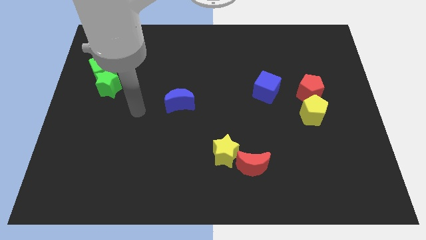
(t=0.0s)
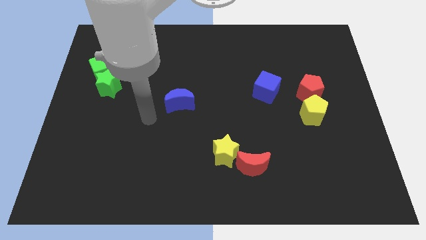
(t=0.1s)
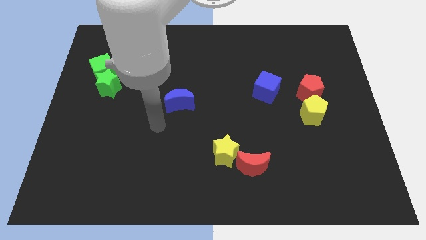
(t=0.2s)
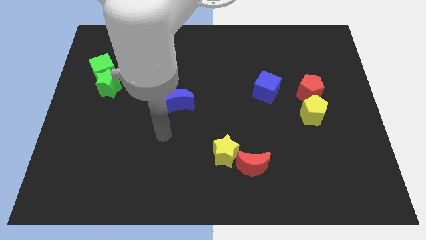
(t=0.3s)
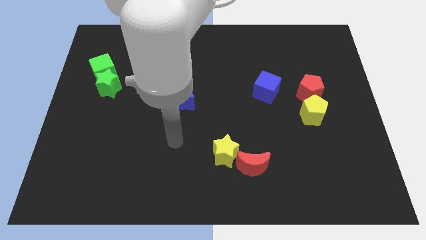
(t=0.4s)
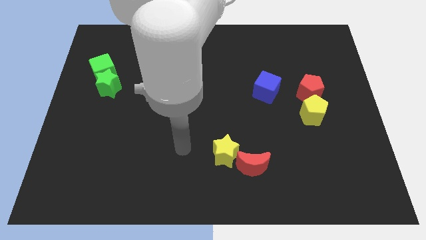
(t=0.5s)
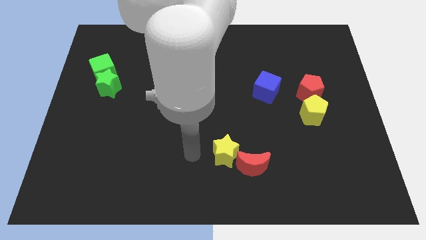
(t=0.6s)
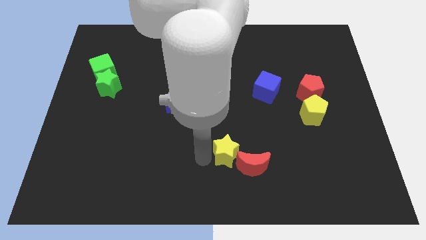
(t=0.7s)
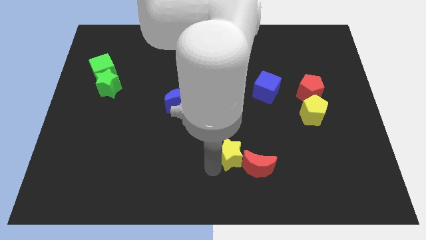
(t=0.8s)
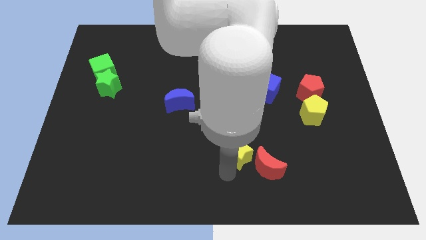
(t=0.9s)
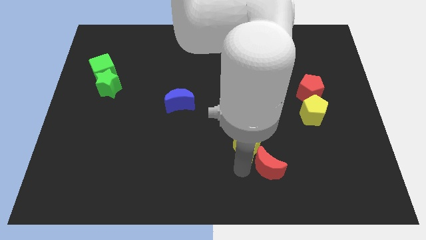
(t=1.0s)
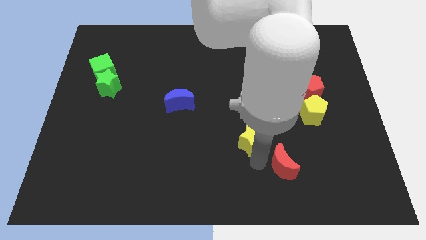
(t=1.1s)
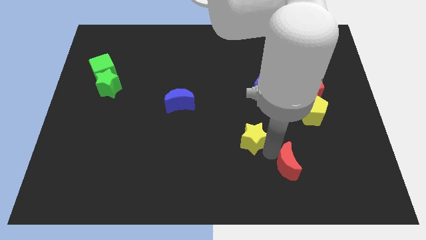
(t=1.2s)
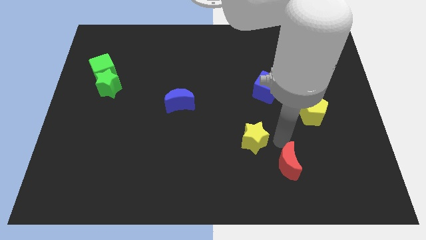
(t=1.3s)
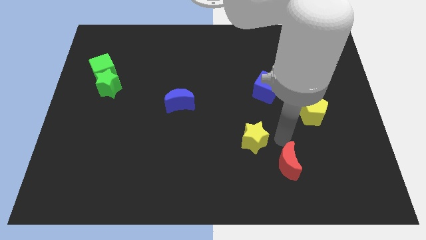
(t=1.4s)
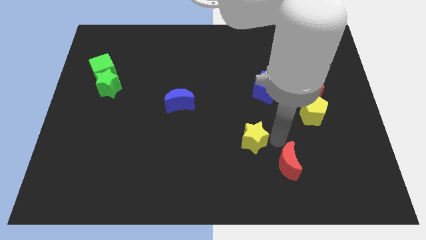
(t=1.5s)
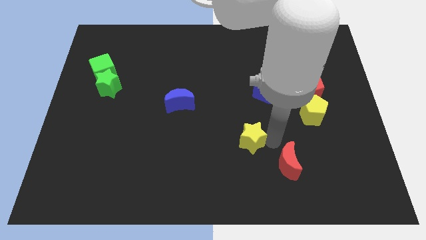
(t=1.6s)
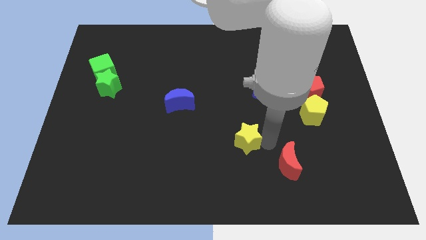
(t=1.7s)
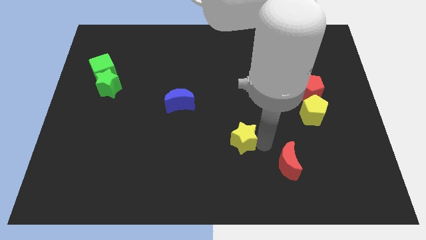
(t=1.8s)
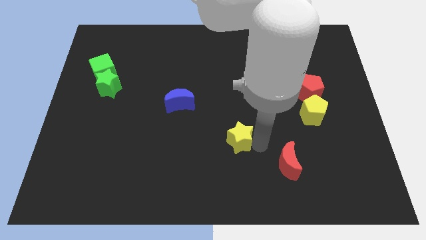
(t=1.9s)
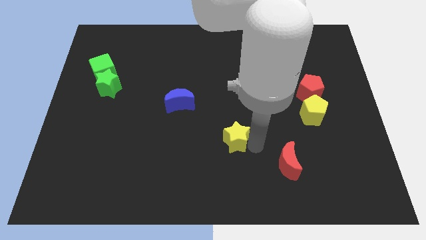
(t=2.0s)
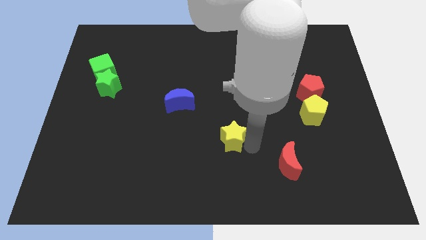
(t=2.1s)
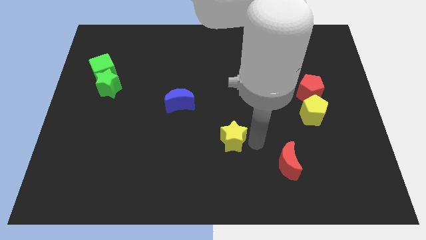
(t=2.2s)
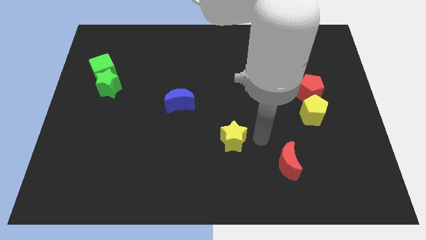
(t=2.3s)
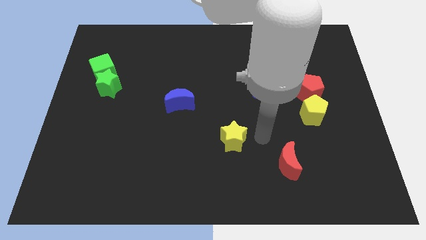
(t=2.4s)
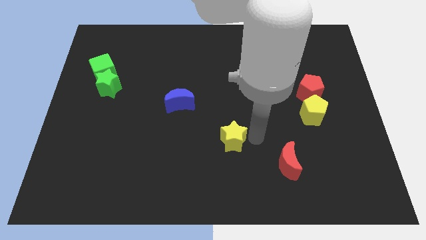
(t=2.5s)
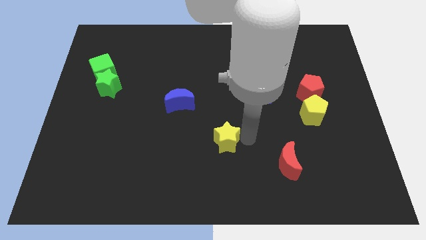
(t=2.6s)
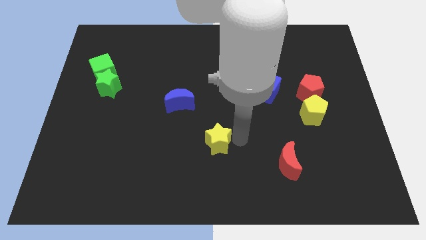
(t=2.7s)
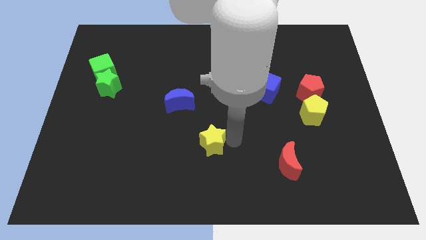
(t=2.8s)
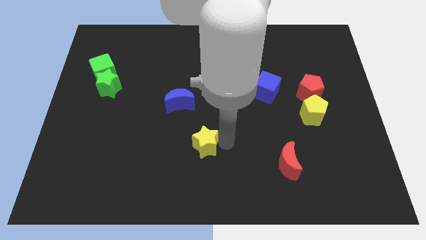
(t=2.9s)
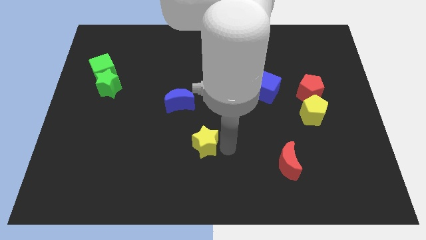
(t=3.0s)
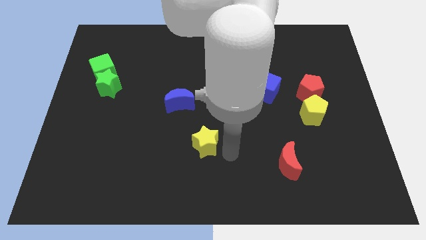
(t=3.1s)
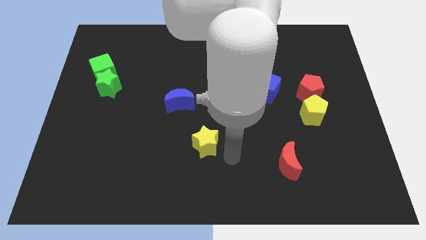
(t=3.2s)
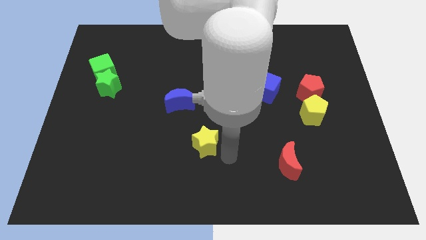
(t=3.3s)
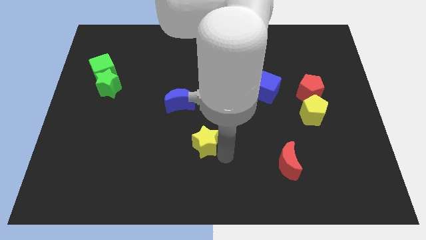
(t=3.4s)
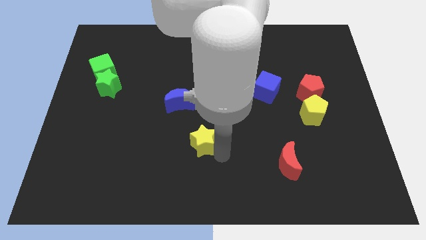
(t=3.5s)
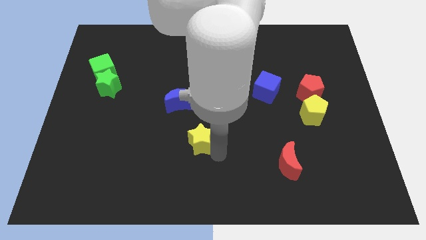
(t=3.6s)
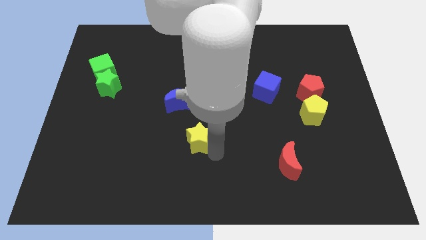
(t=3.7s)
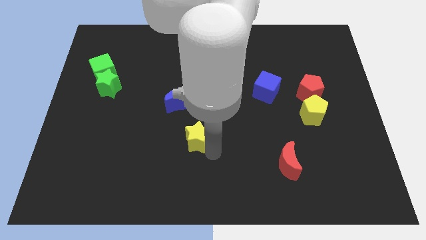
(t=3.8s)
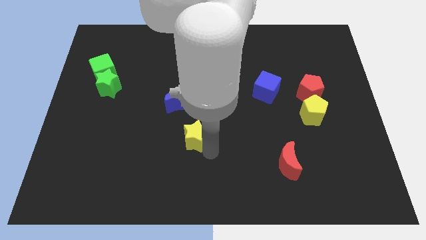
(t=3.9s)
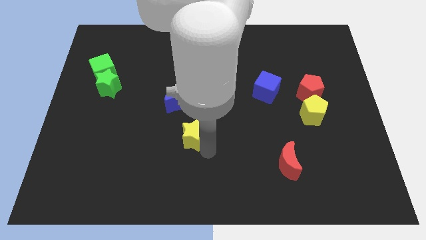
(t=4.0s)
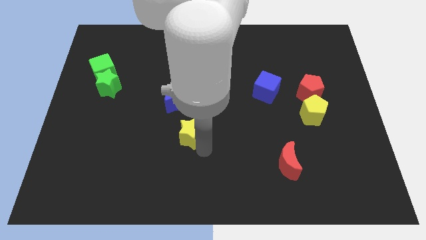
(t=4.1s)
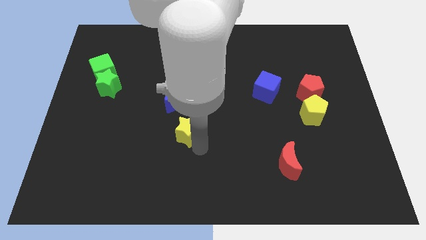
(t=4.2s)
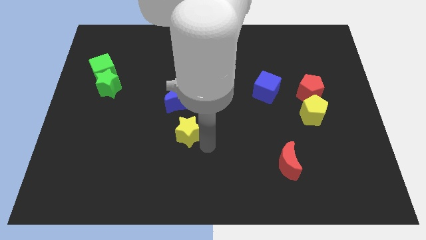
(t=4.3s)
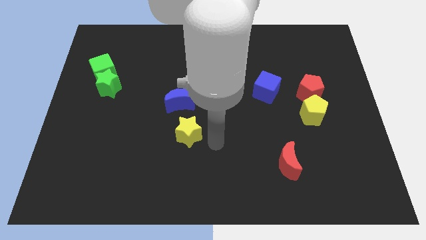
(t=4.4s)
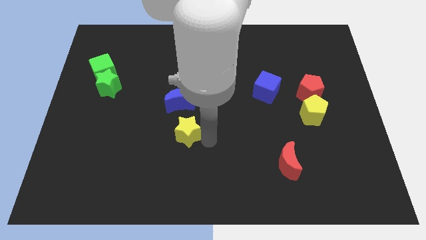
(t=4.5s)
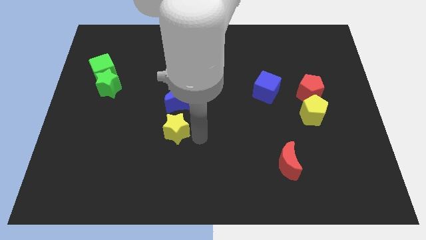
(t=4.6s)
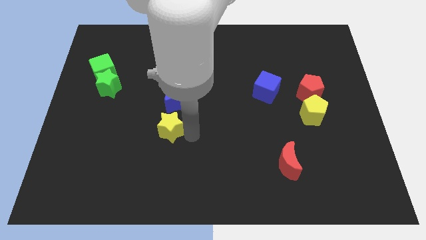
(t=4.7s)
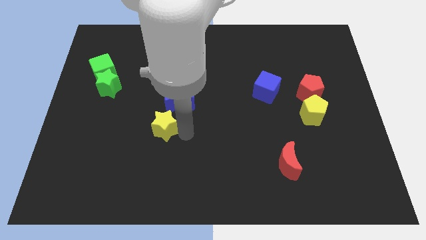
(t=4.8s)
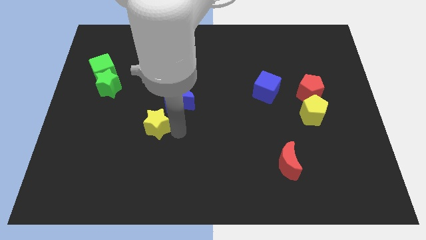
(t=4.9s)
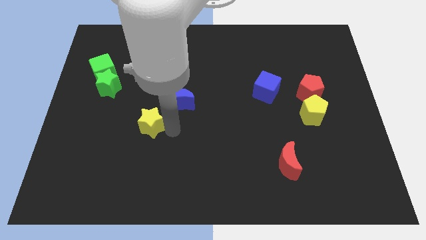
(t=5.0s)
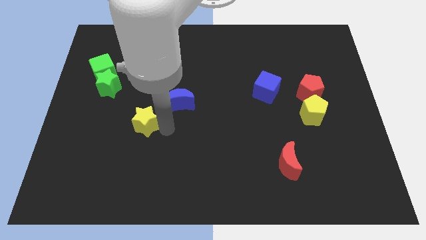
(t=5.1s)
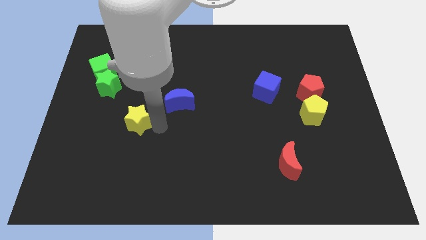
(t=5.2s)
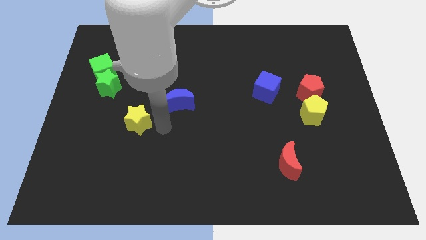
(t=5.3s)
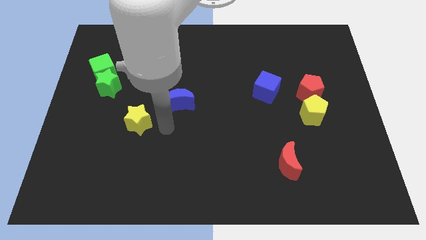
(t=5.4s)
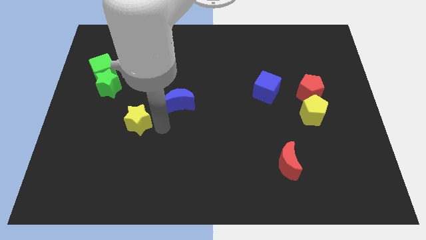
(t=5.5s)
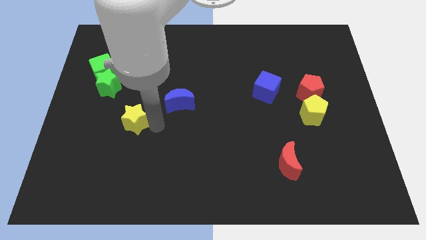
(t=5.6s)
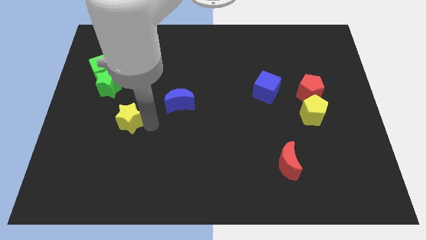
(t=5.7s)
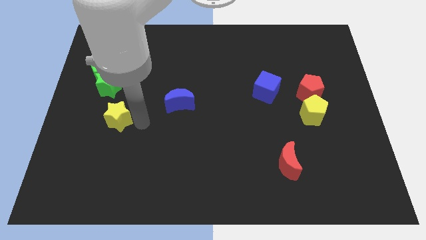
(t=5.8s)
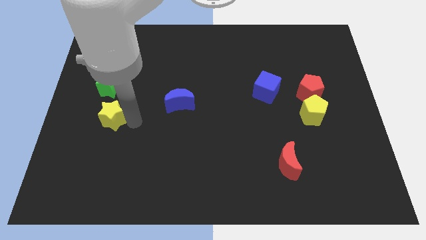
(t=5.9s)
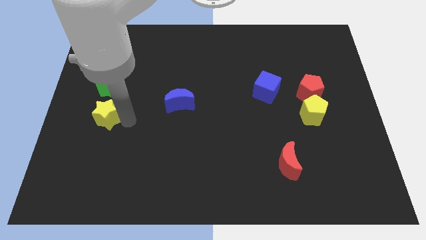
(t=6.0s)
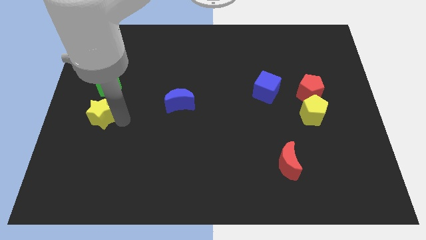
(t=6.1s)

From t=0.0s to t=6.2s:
put the yellow star to the center left

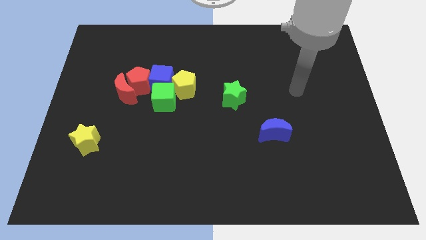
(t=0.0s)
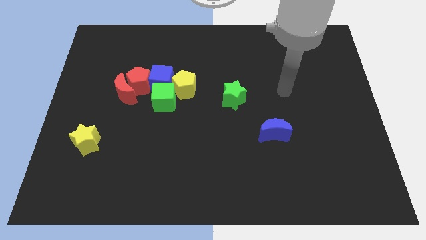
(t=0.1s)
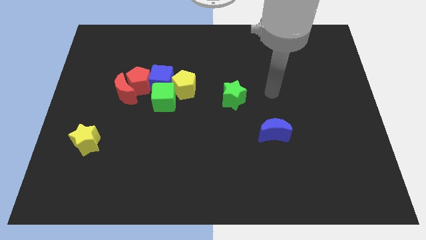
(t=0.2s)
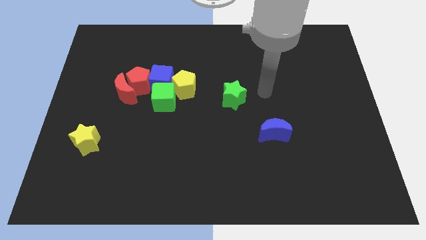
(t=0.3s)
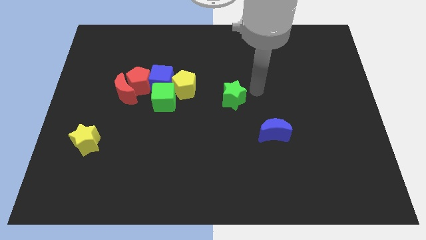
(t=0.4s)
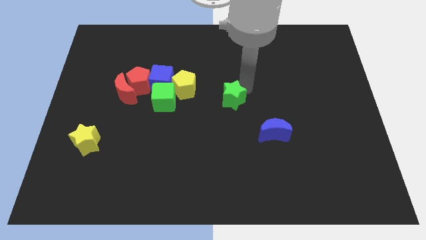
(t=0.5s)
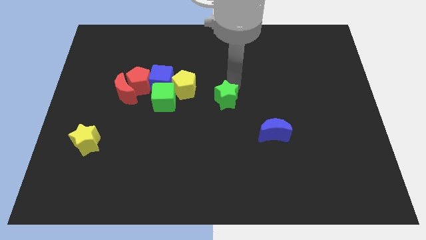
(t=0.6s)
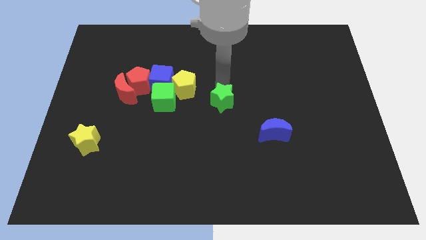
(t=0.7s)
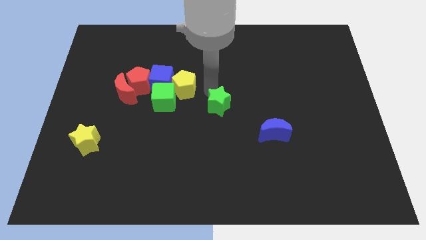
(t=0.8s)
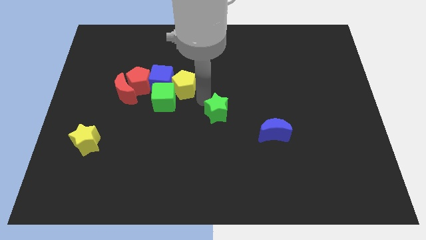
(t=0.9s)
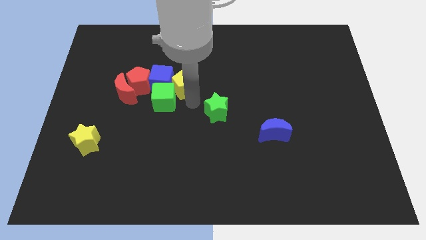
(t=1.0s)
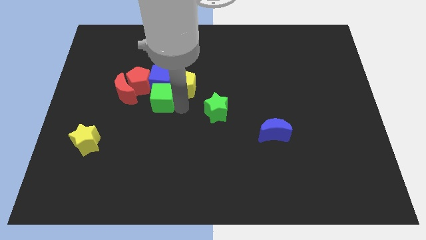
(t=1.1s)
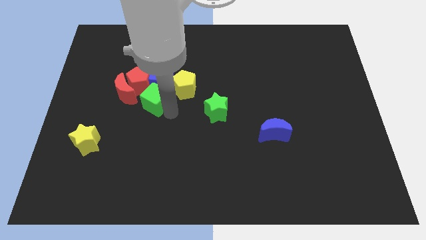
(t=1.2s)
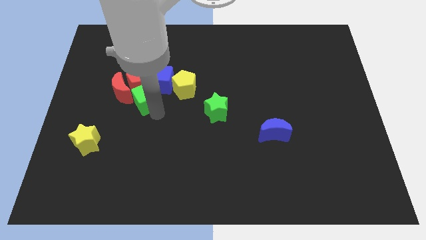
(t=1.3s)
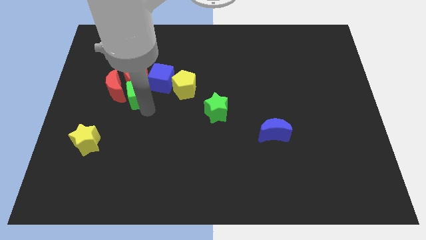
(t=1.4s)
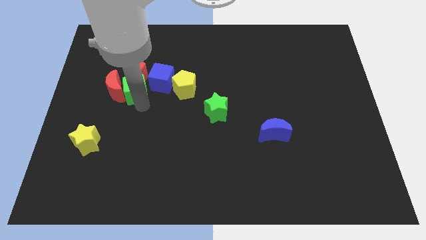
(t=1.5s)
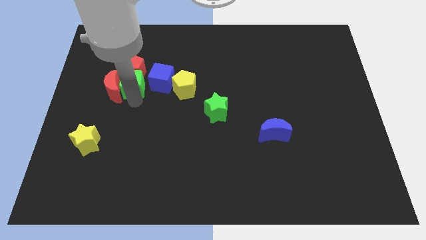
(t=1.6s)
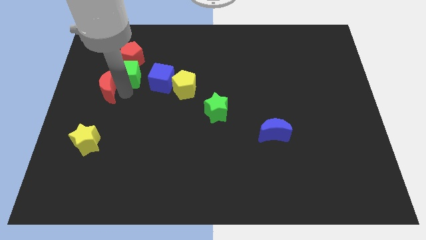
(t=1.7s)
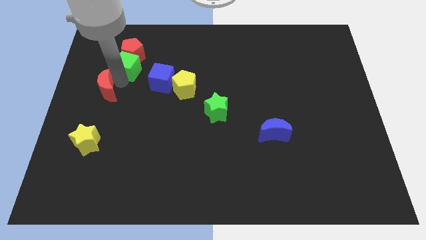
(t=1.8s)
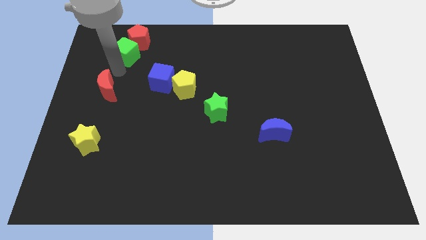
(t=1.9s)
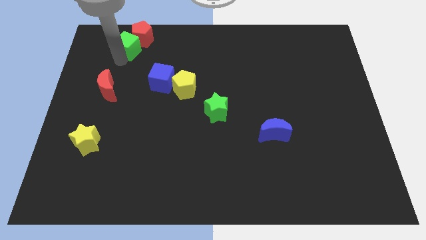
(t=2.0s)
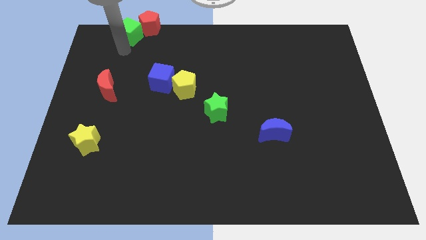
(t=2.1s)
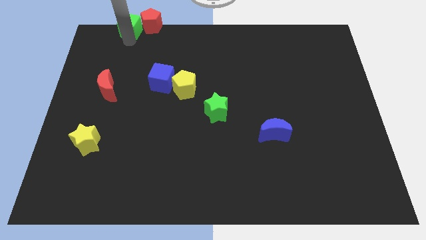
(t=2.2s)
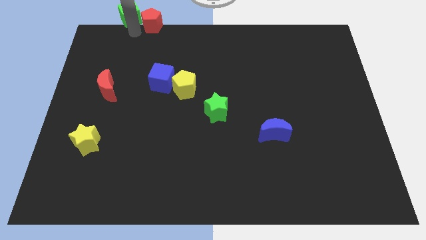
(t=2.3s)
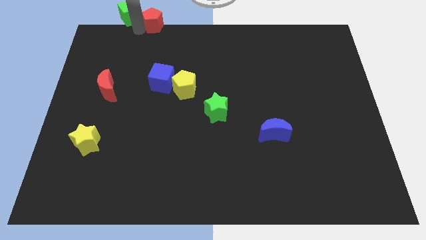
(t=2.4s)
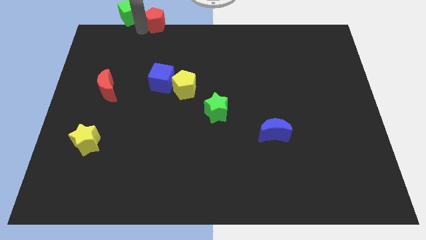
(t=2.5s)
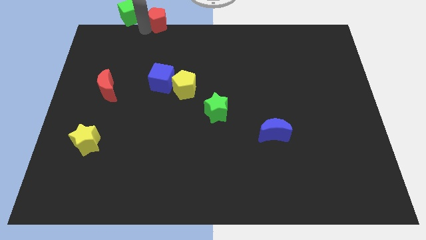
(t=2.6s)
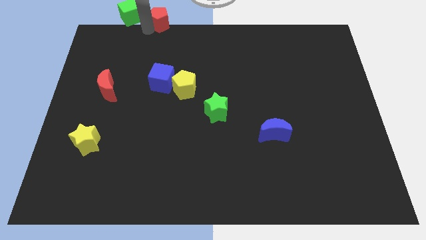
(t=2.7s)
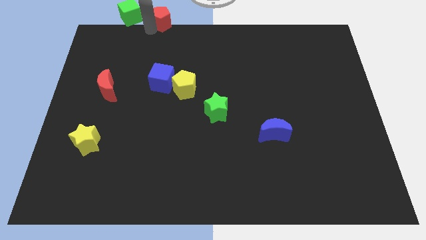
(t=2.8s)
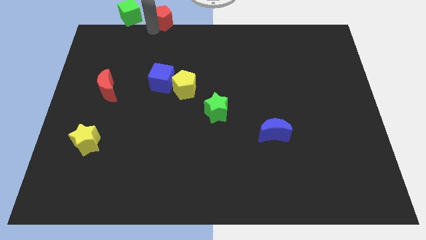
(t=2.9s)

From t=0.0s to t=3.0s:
push the red pentagon to the top side
